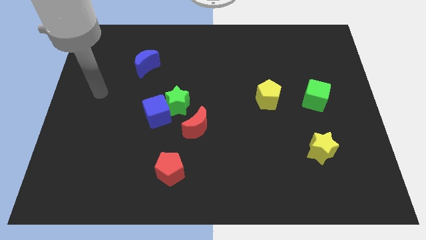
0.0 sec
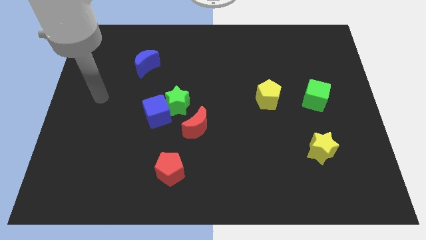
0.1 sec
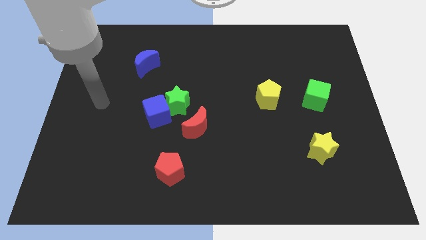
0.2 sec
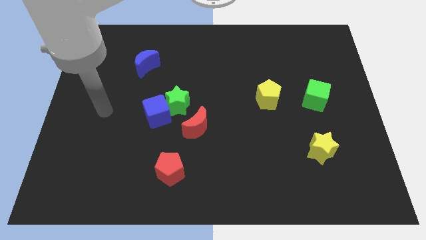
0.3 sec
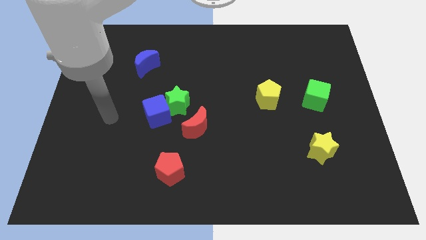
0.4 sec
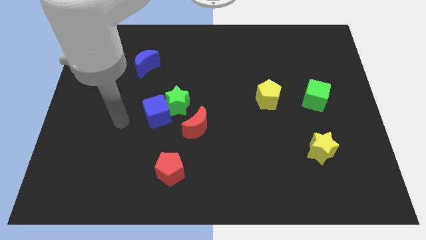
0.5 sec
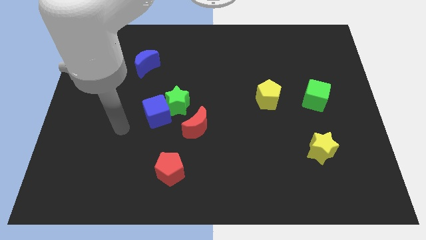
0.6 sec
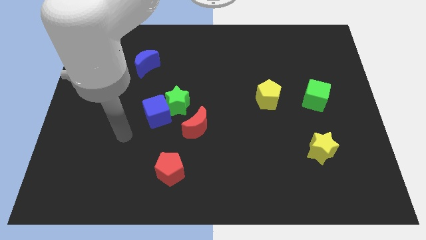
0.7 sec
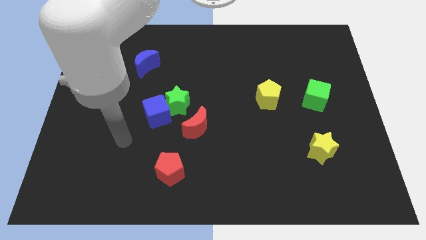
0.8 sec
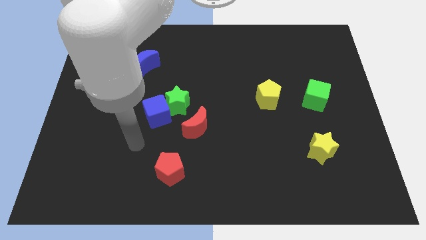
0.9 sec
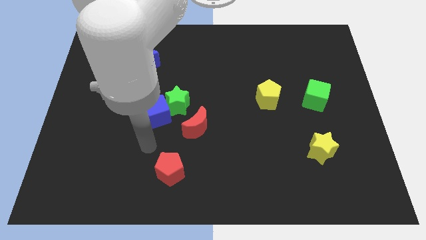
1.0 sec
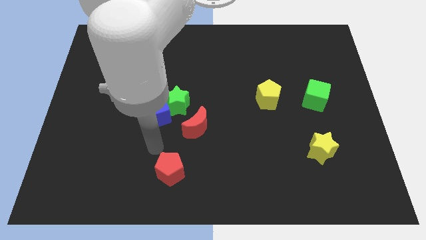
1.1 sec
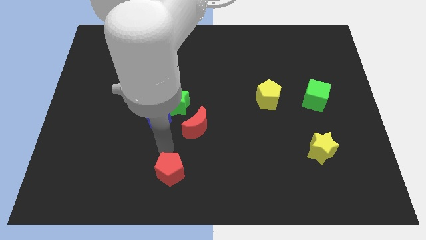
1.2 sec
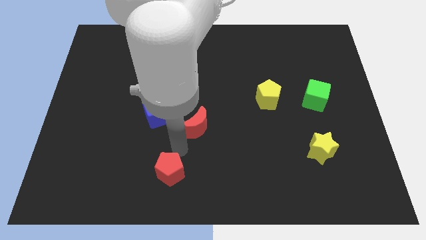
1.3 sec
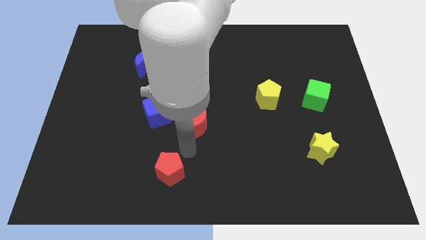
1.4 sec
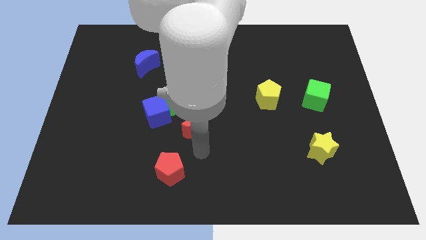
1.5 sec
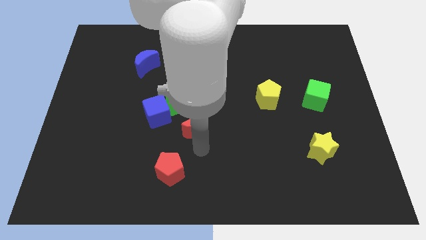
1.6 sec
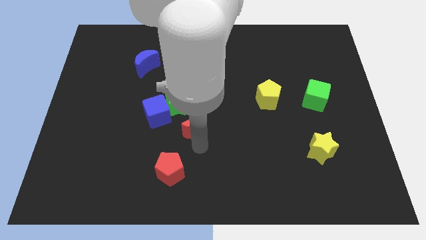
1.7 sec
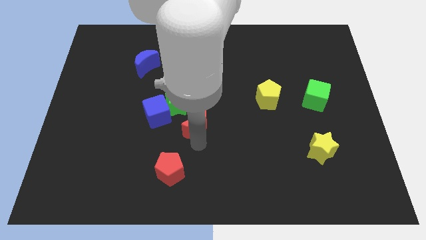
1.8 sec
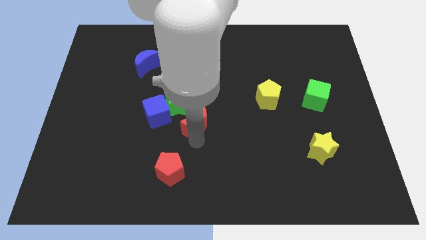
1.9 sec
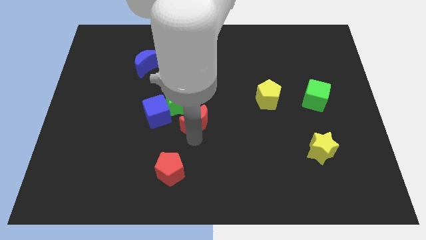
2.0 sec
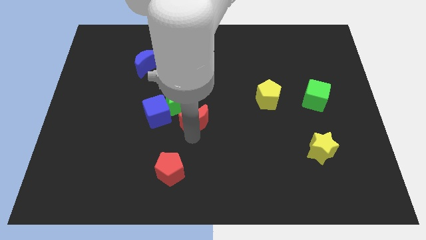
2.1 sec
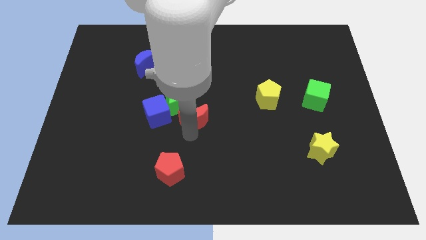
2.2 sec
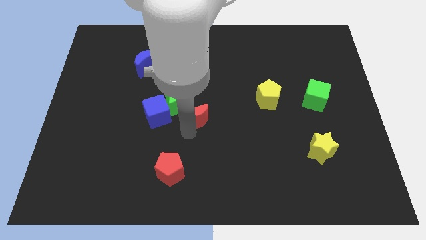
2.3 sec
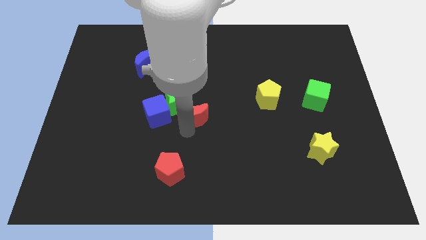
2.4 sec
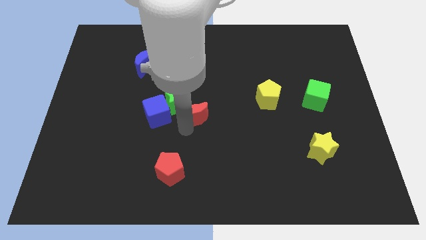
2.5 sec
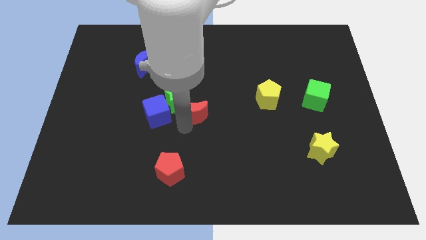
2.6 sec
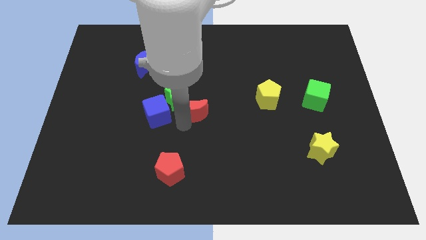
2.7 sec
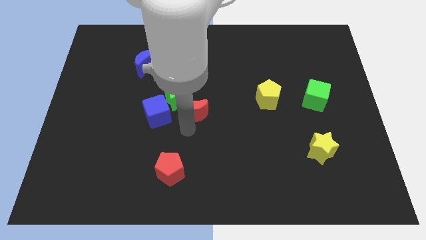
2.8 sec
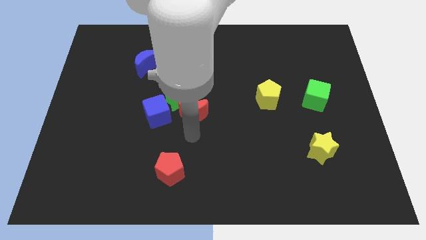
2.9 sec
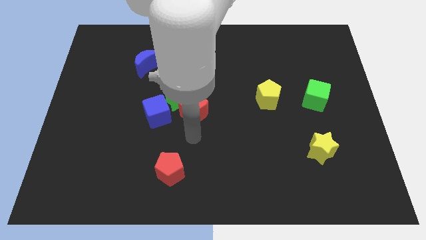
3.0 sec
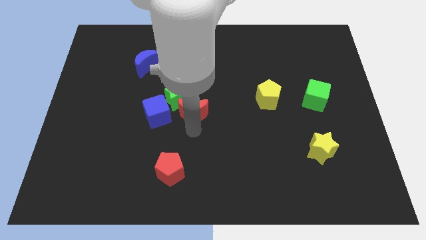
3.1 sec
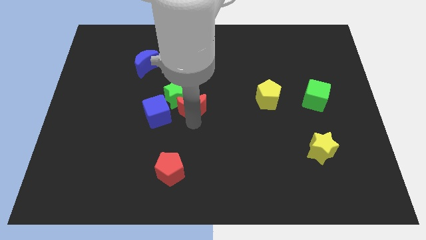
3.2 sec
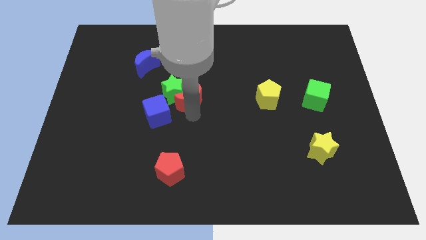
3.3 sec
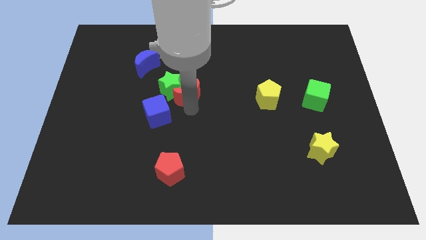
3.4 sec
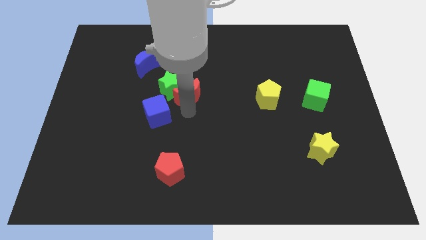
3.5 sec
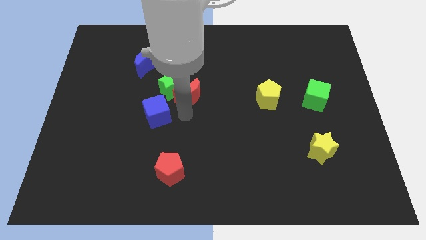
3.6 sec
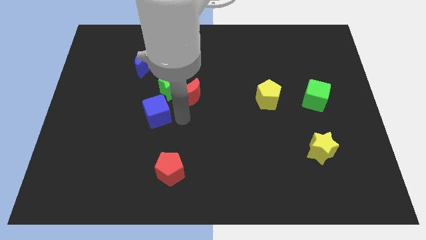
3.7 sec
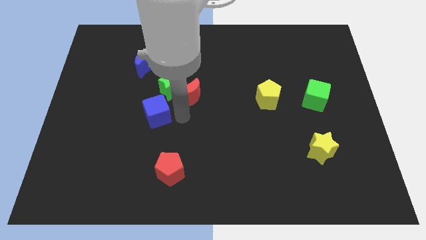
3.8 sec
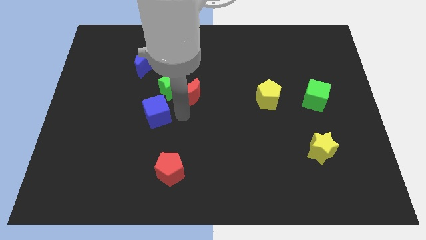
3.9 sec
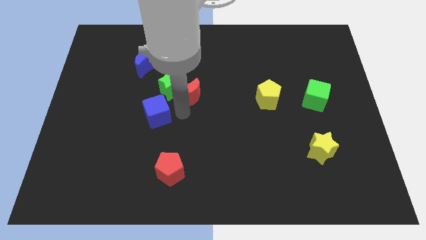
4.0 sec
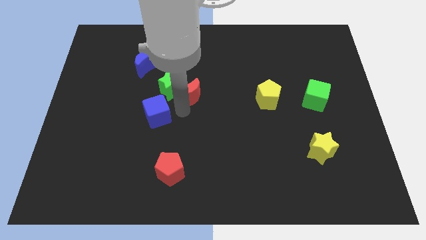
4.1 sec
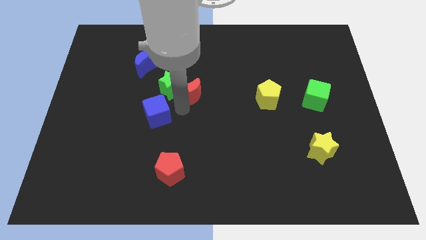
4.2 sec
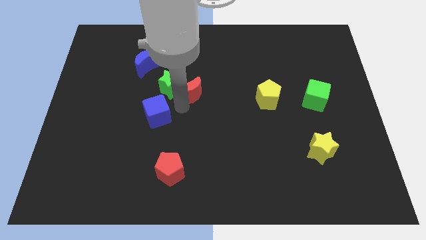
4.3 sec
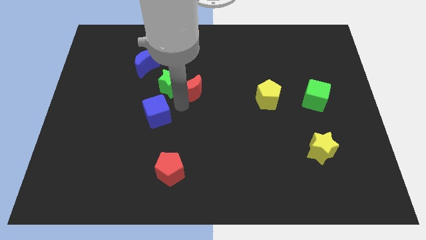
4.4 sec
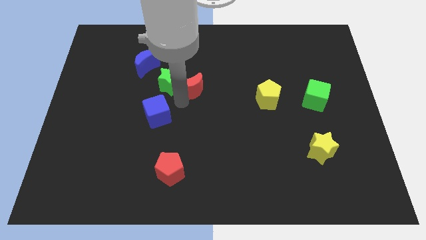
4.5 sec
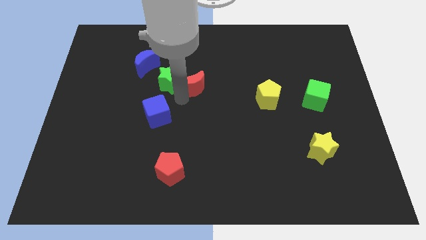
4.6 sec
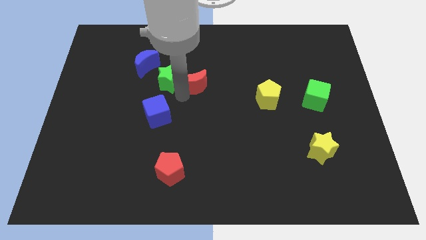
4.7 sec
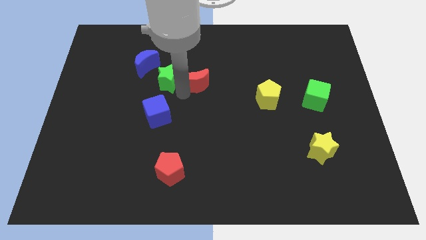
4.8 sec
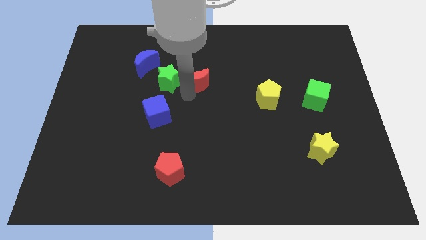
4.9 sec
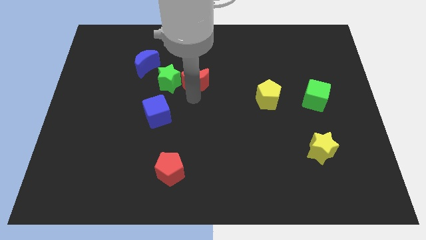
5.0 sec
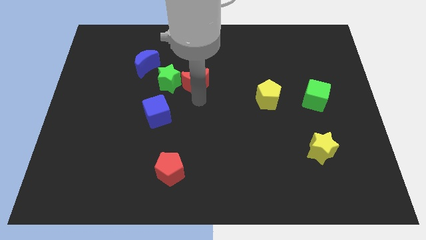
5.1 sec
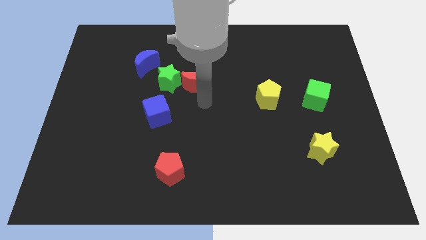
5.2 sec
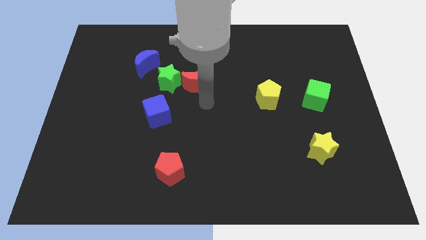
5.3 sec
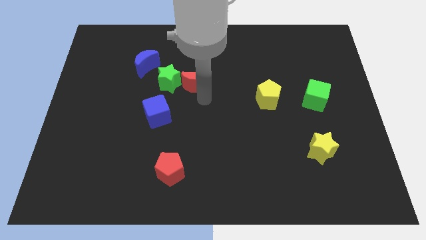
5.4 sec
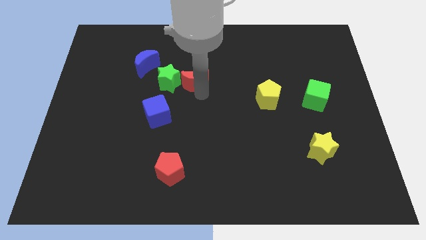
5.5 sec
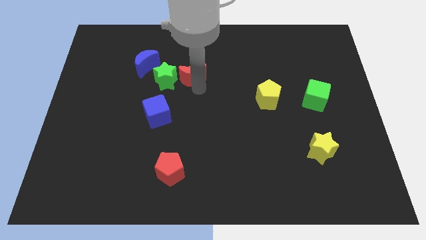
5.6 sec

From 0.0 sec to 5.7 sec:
slide the red moon just right of the blue moon

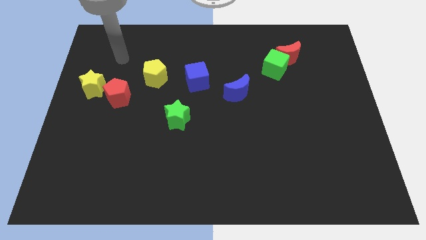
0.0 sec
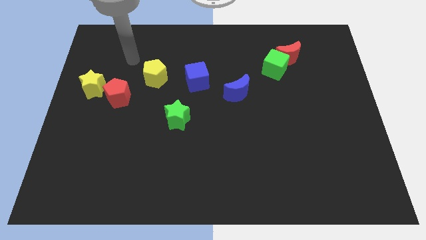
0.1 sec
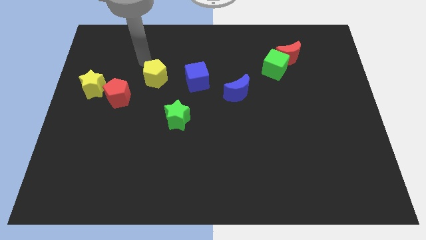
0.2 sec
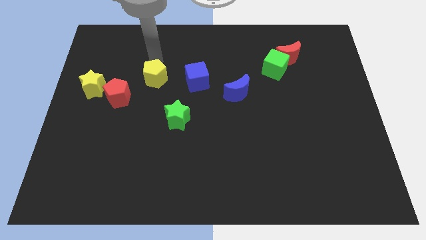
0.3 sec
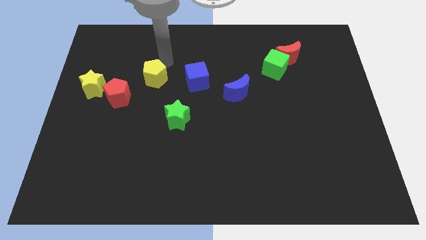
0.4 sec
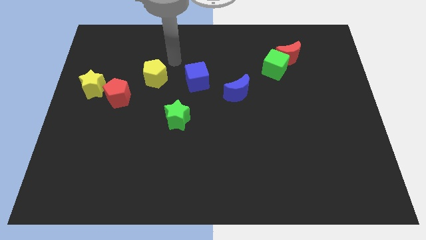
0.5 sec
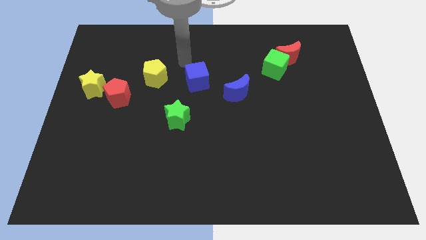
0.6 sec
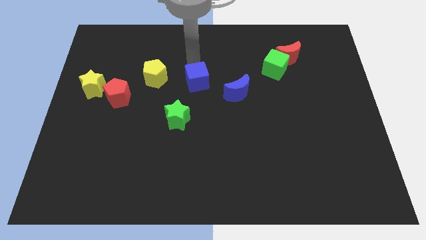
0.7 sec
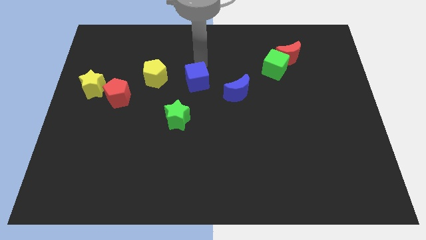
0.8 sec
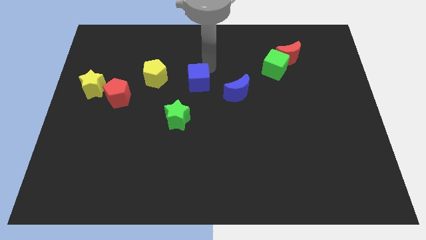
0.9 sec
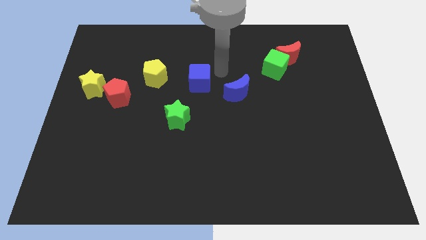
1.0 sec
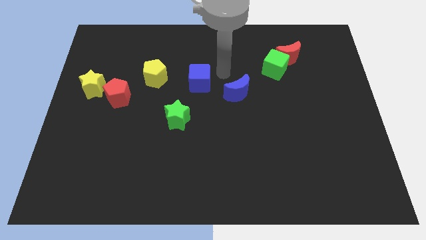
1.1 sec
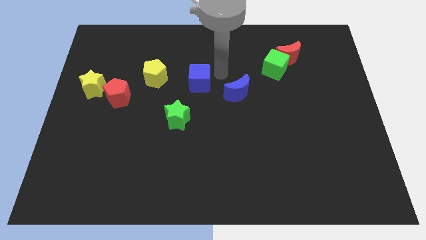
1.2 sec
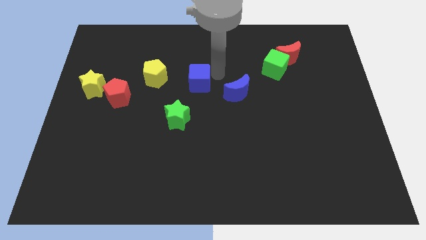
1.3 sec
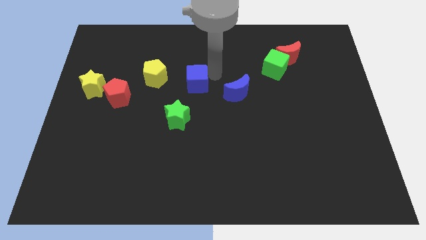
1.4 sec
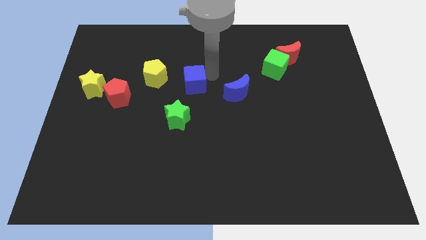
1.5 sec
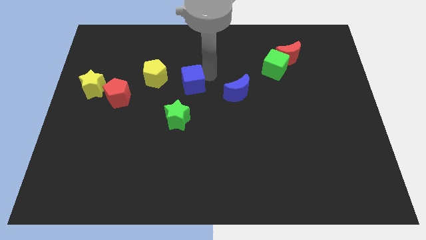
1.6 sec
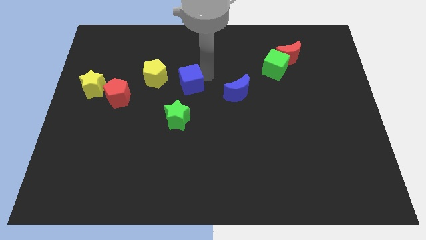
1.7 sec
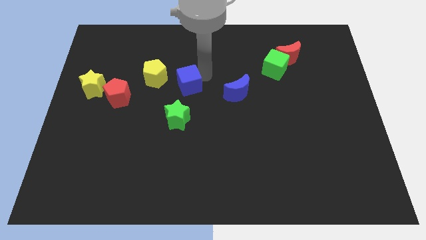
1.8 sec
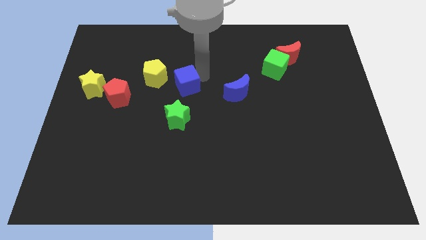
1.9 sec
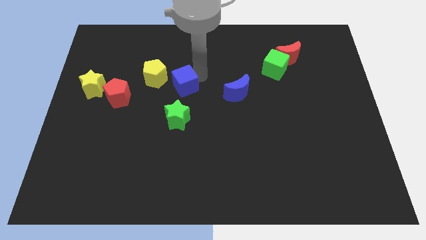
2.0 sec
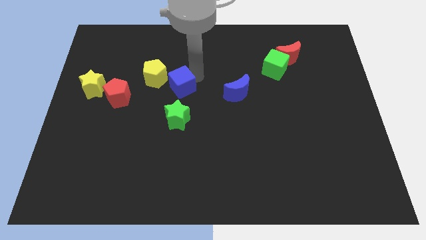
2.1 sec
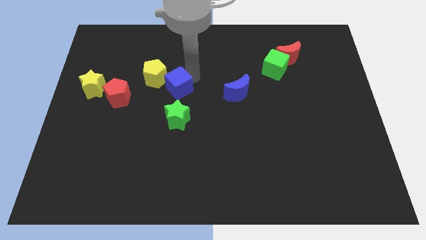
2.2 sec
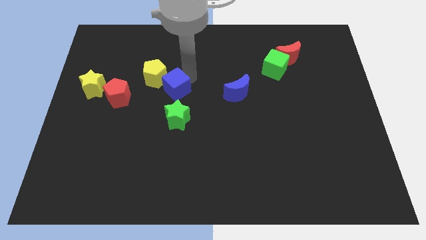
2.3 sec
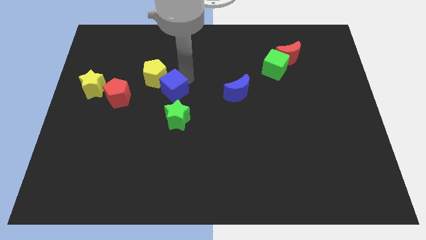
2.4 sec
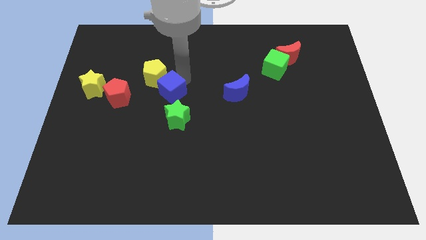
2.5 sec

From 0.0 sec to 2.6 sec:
put the blue cube to the top left of the green star
